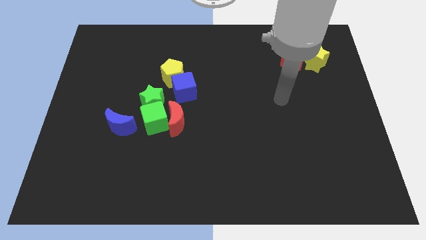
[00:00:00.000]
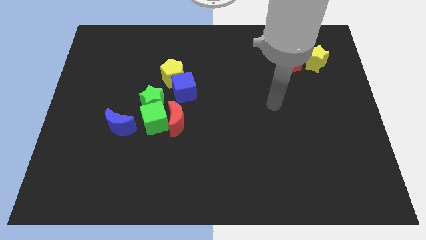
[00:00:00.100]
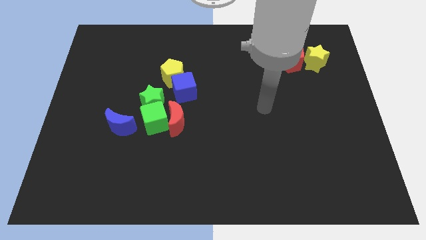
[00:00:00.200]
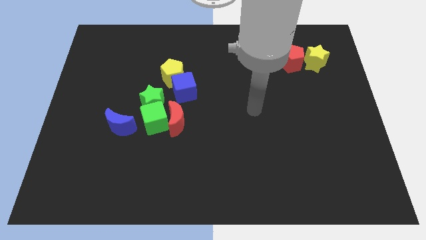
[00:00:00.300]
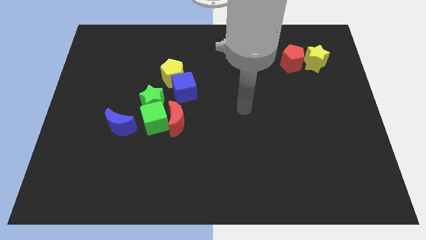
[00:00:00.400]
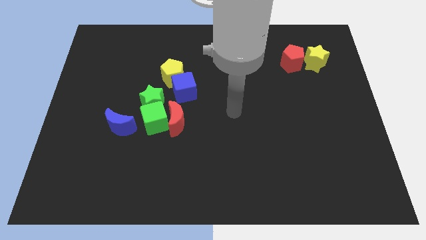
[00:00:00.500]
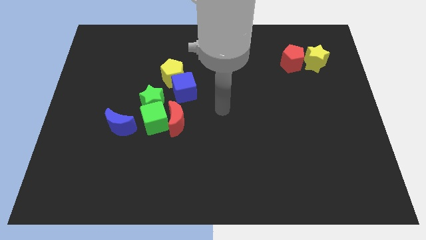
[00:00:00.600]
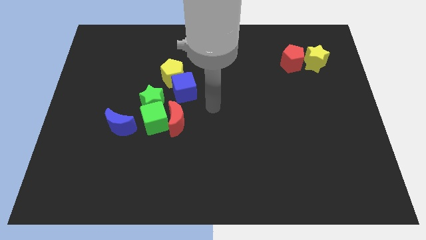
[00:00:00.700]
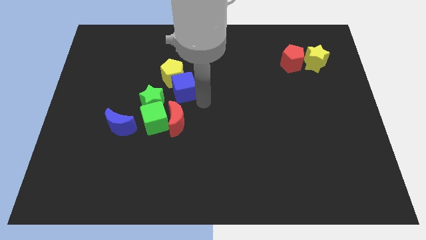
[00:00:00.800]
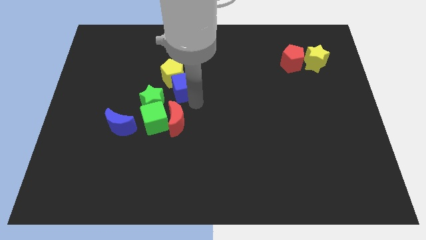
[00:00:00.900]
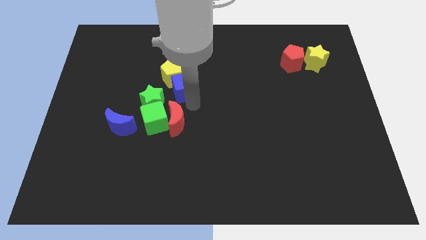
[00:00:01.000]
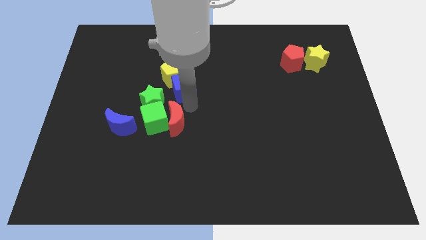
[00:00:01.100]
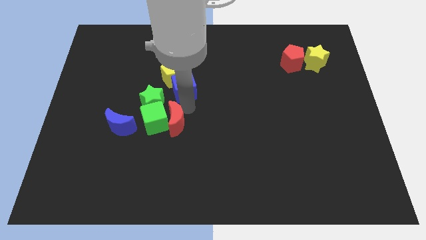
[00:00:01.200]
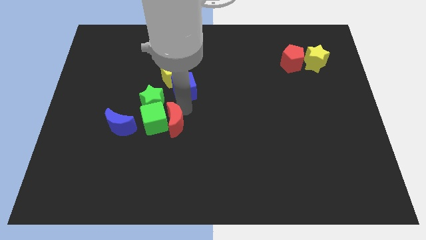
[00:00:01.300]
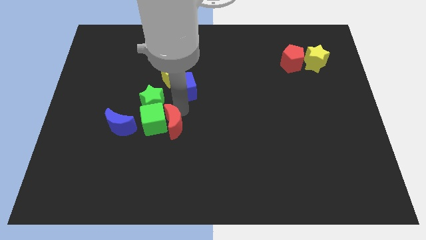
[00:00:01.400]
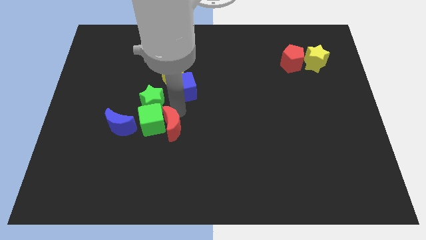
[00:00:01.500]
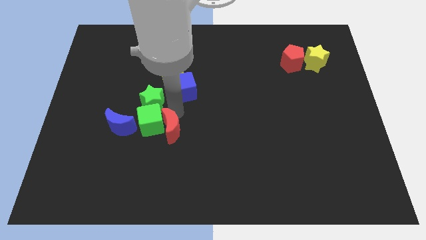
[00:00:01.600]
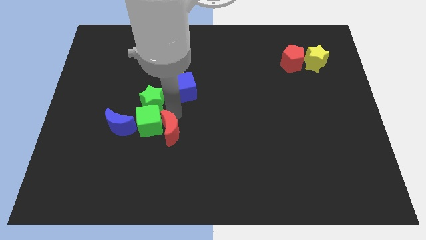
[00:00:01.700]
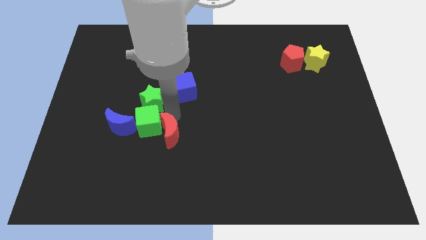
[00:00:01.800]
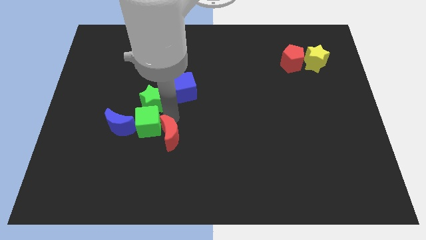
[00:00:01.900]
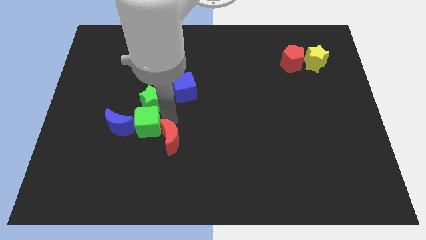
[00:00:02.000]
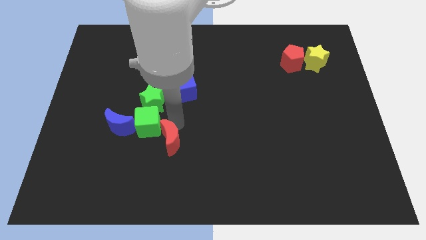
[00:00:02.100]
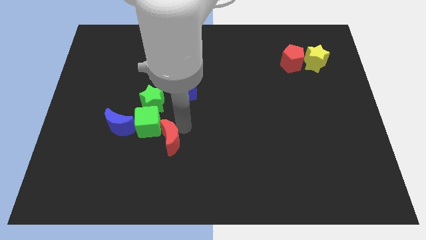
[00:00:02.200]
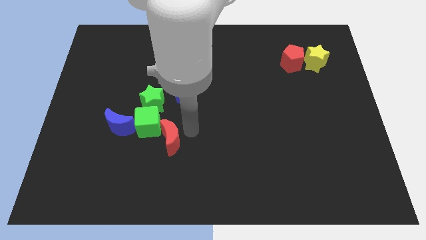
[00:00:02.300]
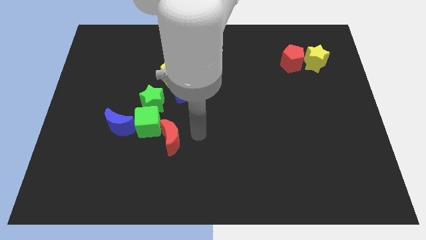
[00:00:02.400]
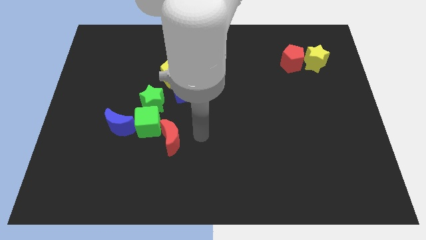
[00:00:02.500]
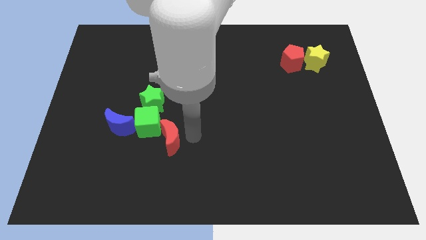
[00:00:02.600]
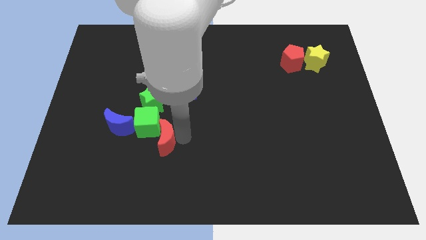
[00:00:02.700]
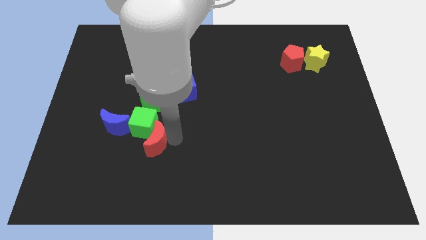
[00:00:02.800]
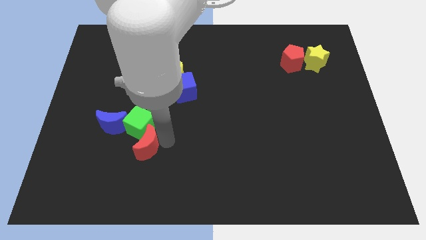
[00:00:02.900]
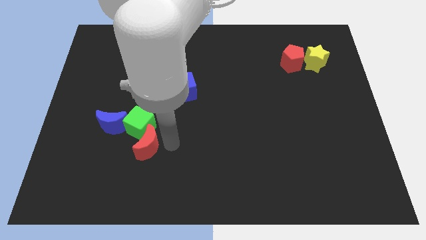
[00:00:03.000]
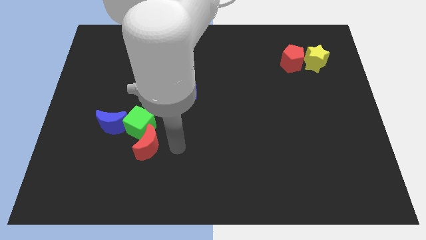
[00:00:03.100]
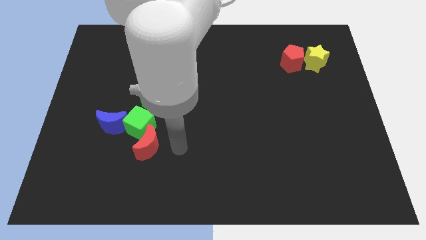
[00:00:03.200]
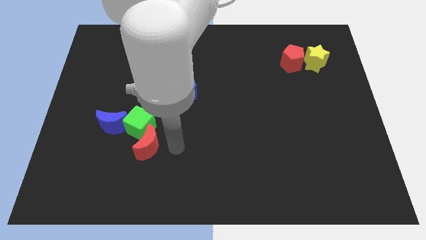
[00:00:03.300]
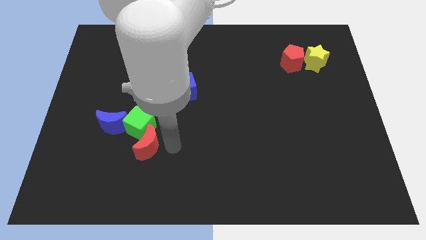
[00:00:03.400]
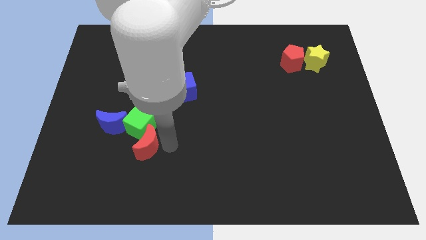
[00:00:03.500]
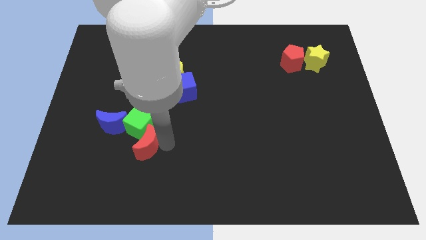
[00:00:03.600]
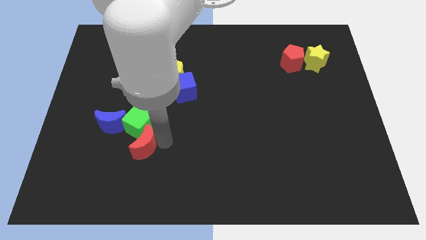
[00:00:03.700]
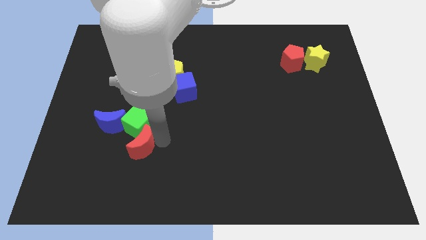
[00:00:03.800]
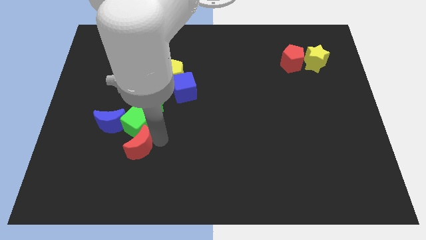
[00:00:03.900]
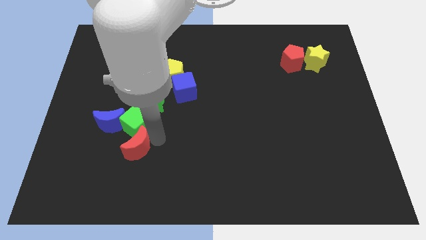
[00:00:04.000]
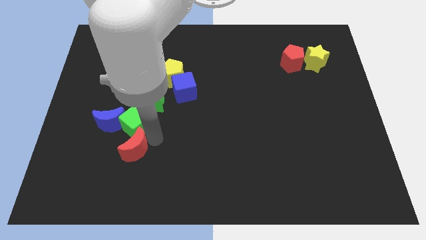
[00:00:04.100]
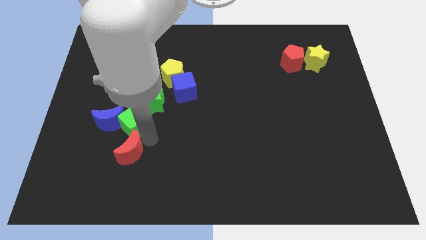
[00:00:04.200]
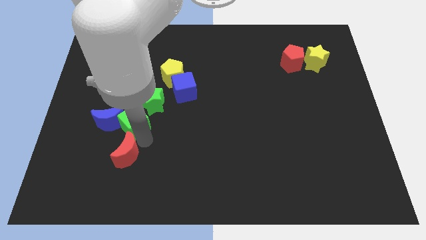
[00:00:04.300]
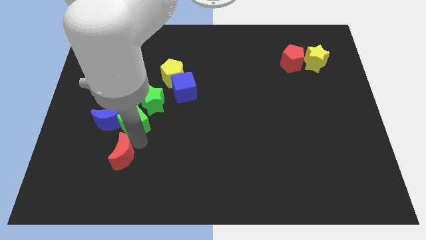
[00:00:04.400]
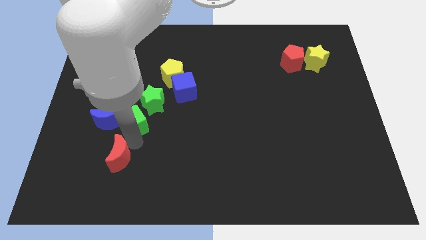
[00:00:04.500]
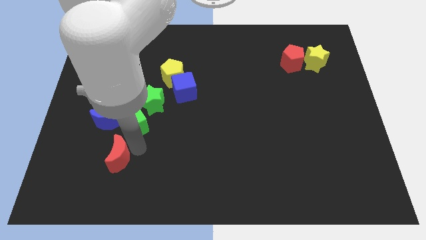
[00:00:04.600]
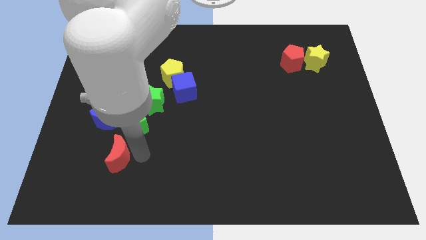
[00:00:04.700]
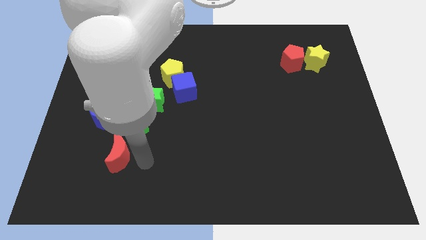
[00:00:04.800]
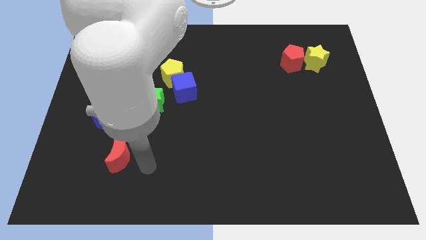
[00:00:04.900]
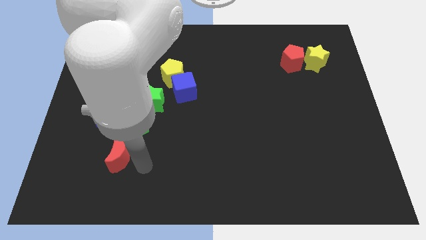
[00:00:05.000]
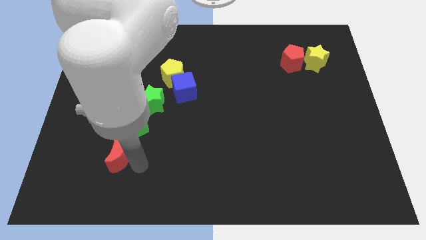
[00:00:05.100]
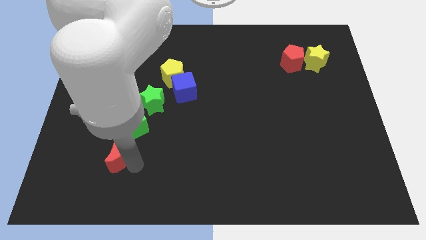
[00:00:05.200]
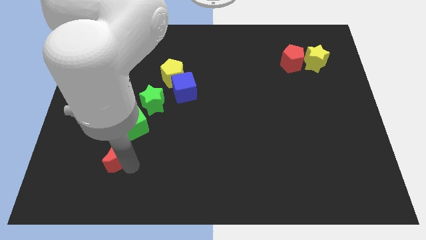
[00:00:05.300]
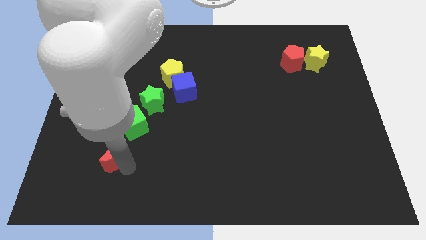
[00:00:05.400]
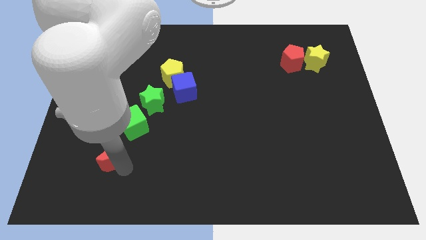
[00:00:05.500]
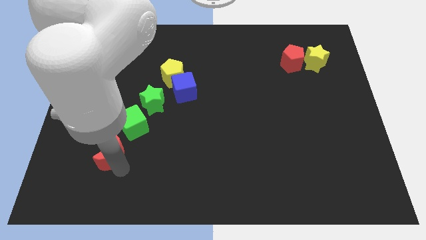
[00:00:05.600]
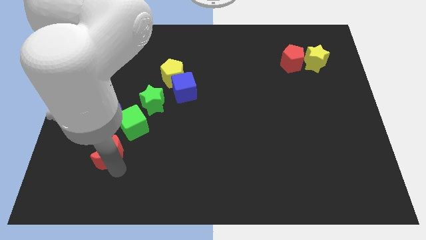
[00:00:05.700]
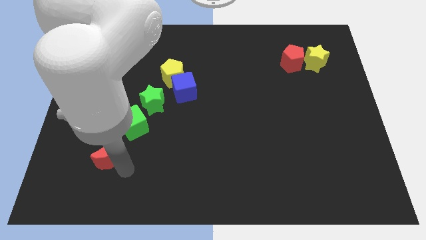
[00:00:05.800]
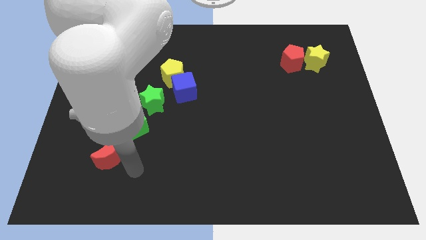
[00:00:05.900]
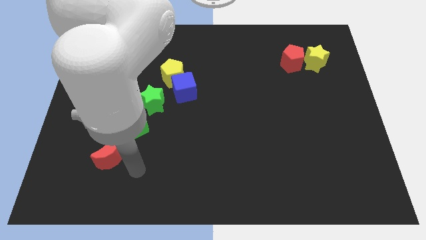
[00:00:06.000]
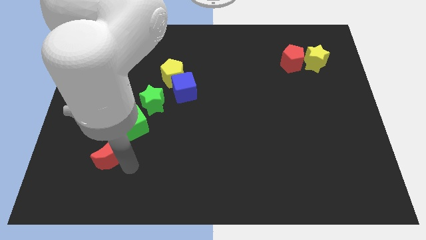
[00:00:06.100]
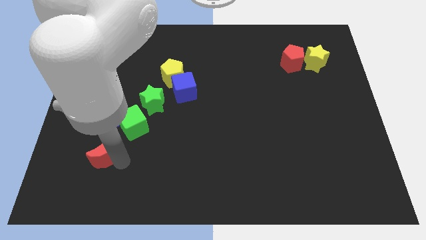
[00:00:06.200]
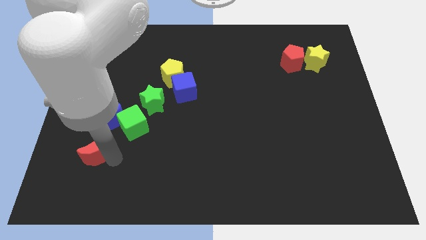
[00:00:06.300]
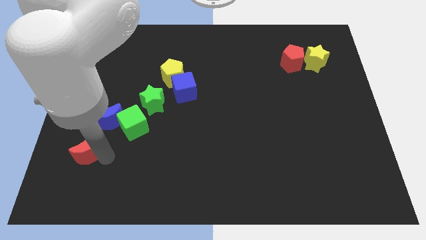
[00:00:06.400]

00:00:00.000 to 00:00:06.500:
move the red moon to the bottom left side of the blue moon

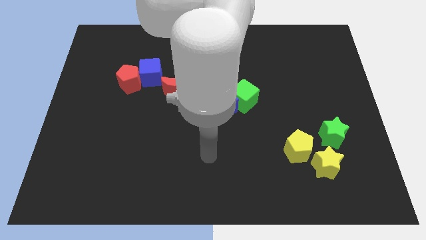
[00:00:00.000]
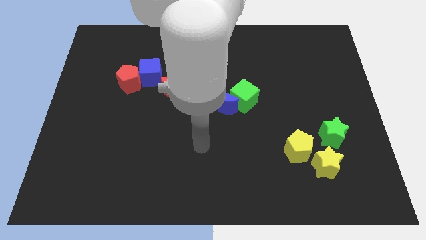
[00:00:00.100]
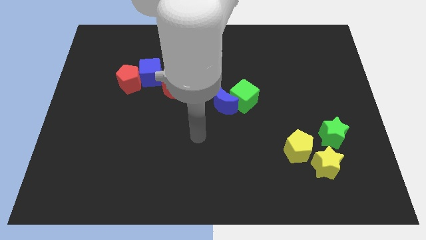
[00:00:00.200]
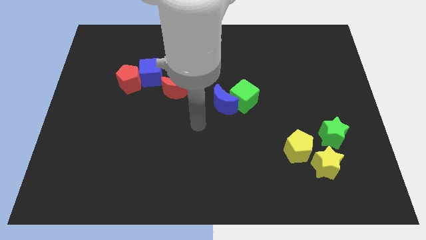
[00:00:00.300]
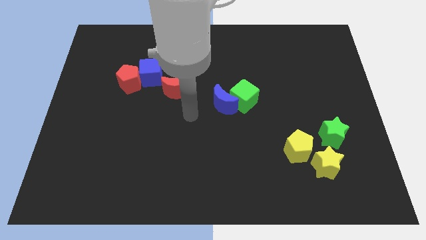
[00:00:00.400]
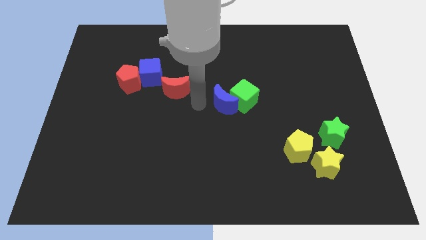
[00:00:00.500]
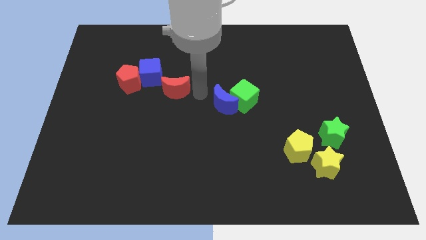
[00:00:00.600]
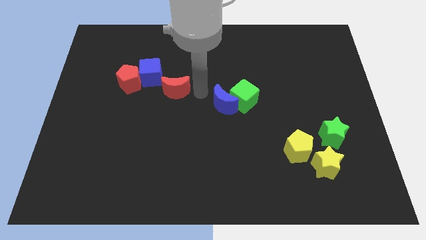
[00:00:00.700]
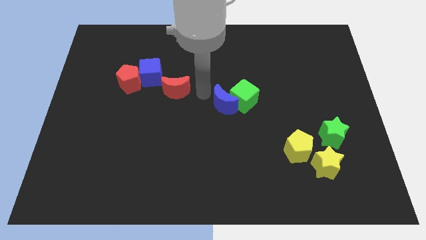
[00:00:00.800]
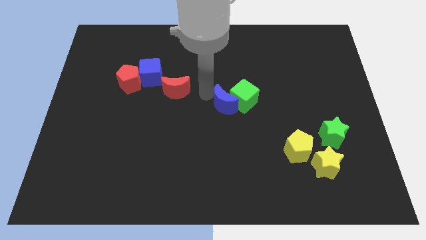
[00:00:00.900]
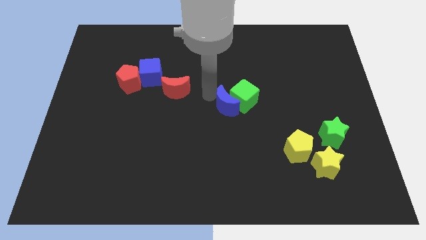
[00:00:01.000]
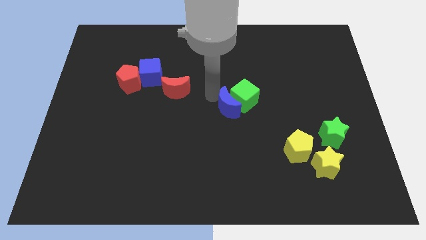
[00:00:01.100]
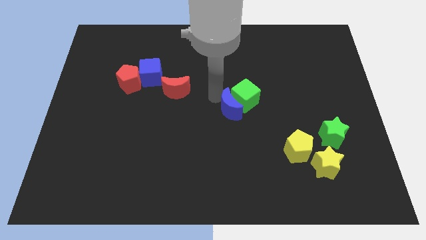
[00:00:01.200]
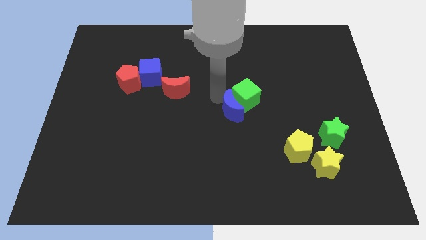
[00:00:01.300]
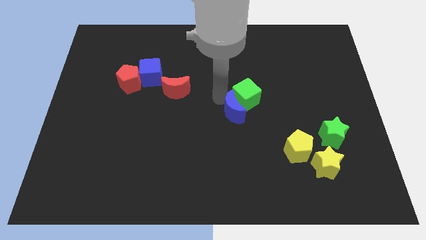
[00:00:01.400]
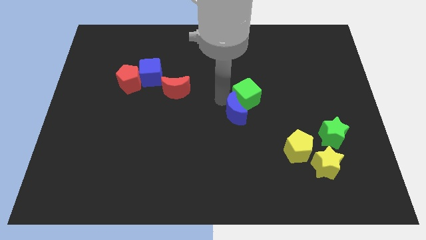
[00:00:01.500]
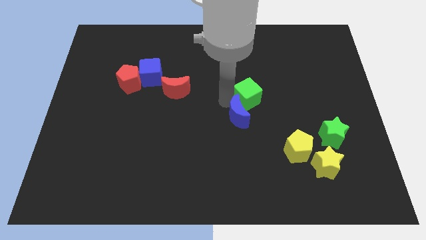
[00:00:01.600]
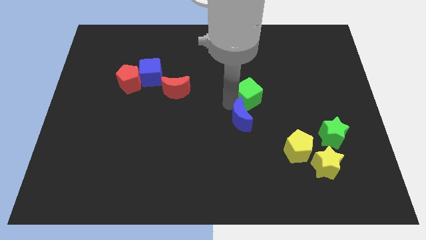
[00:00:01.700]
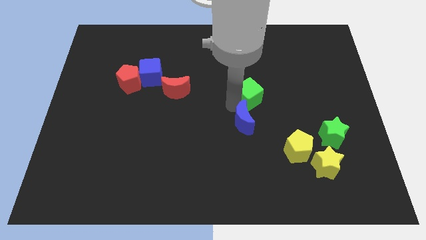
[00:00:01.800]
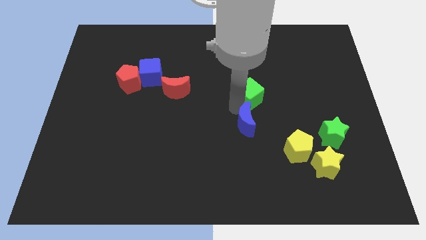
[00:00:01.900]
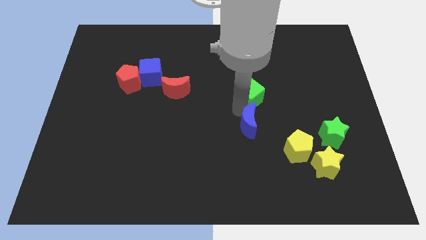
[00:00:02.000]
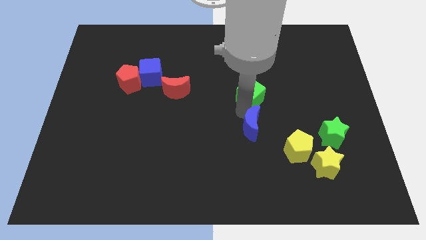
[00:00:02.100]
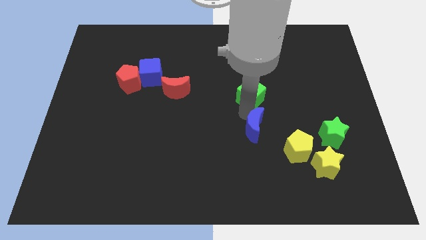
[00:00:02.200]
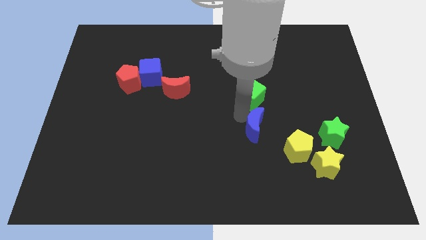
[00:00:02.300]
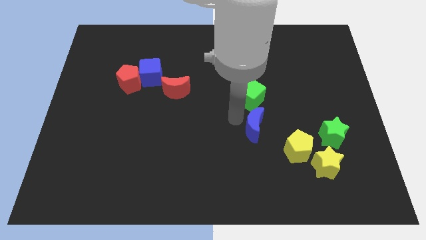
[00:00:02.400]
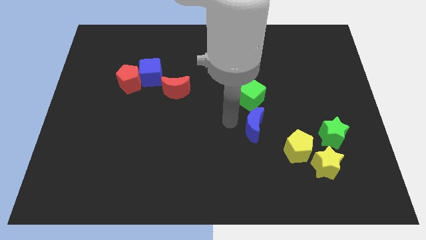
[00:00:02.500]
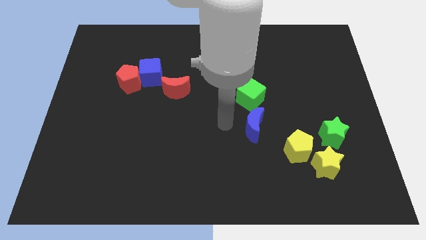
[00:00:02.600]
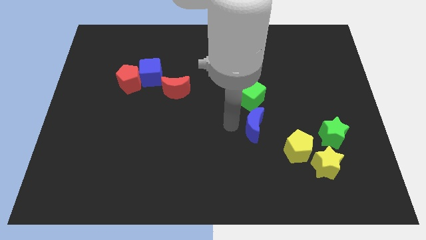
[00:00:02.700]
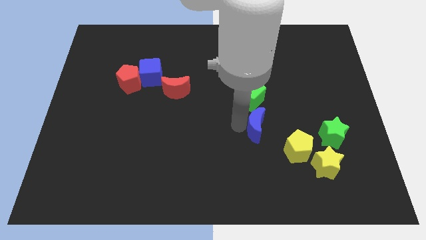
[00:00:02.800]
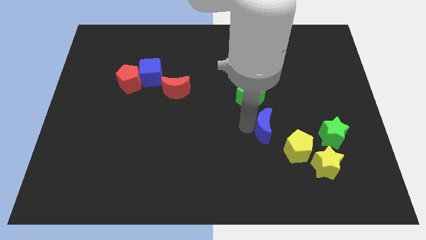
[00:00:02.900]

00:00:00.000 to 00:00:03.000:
put the blue moon to the left of the green star
